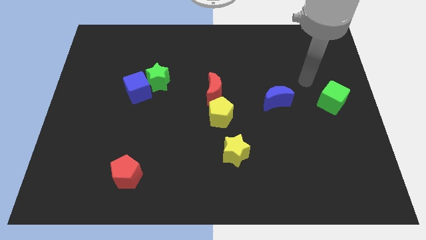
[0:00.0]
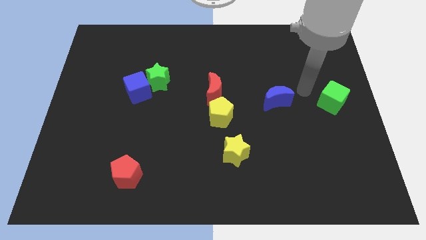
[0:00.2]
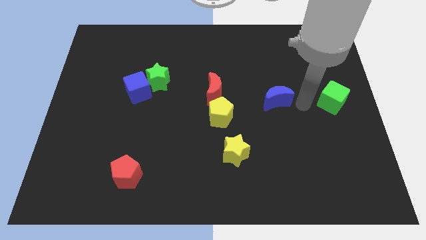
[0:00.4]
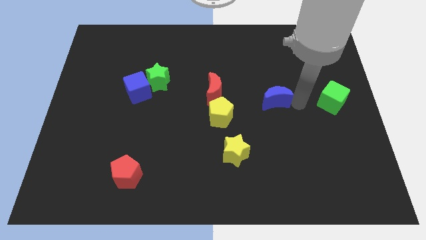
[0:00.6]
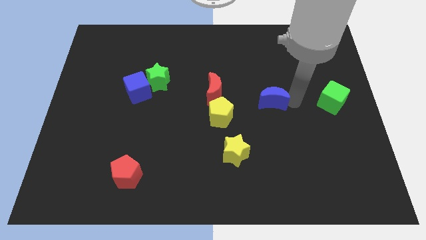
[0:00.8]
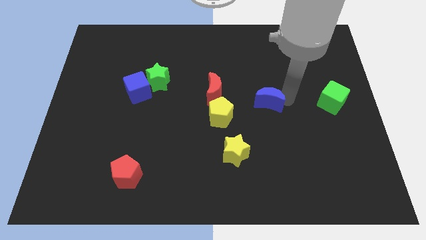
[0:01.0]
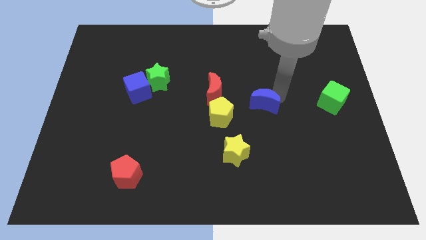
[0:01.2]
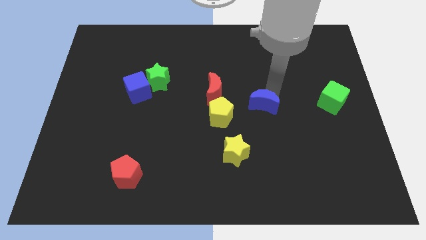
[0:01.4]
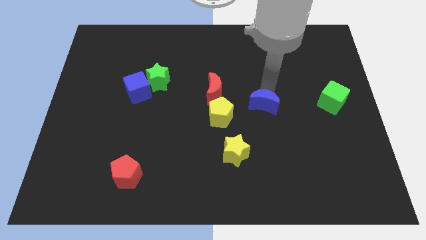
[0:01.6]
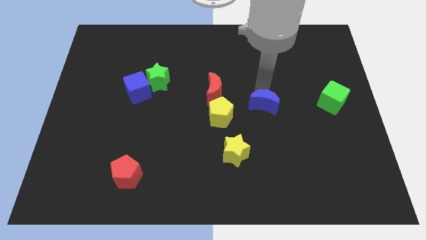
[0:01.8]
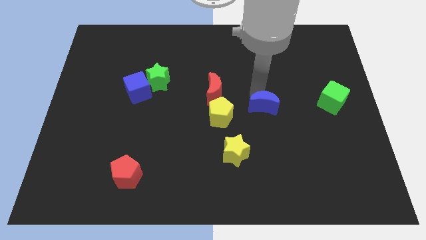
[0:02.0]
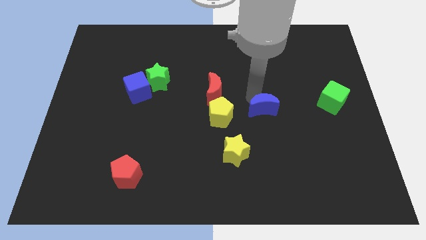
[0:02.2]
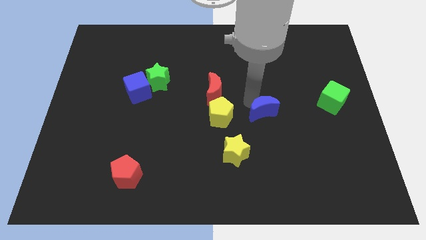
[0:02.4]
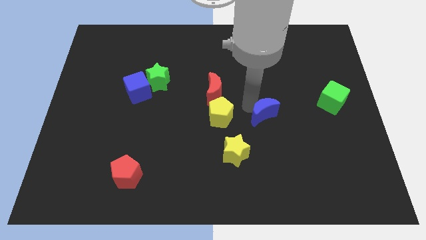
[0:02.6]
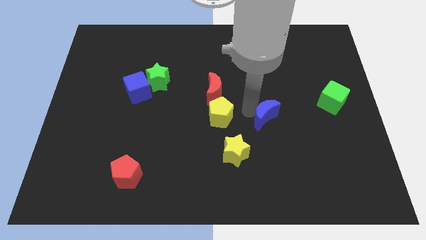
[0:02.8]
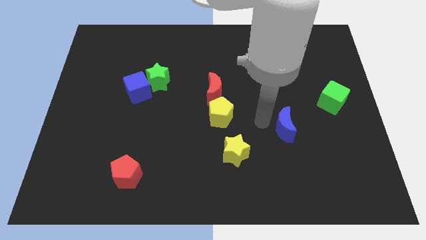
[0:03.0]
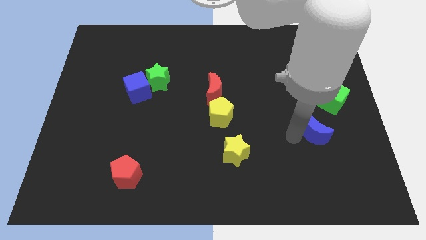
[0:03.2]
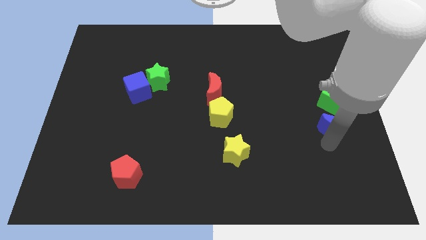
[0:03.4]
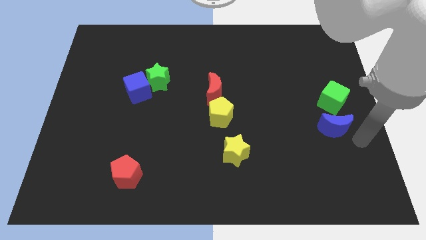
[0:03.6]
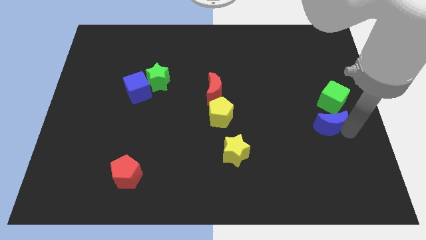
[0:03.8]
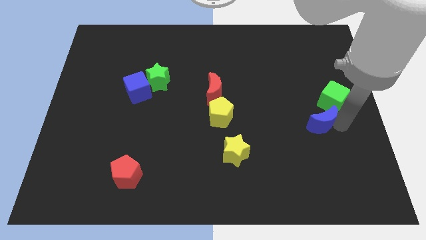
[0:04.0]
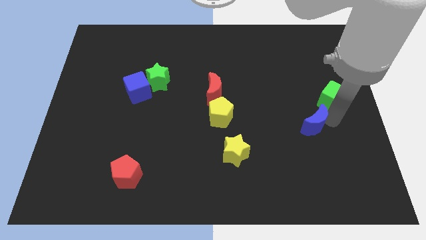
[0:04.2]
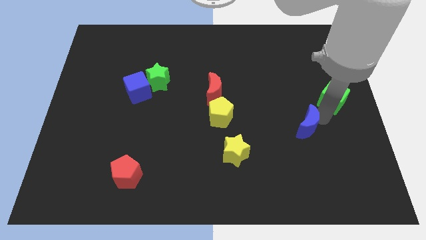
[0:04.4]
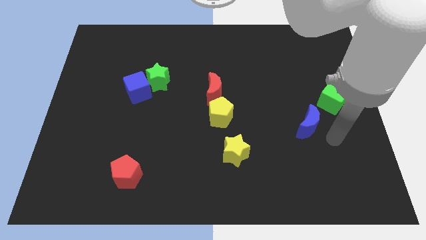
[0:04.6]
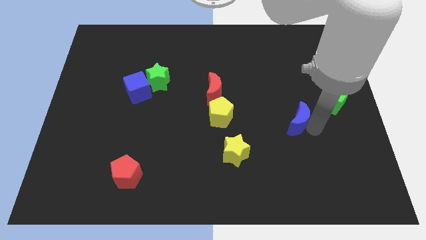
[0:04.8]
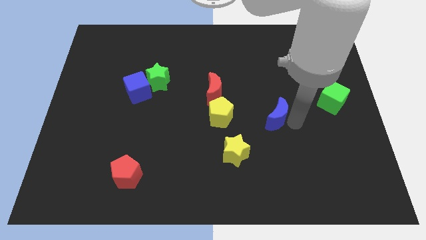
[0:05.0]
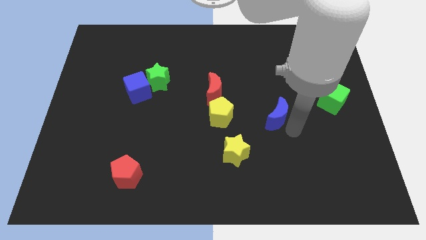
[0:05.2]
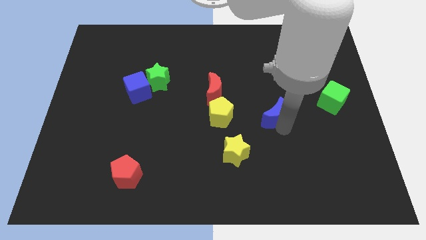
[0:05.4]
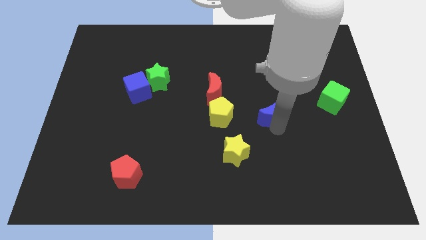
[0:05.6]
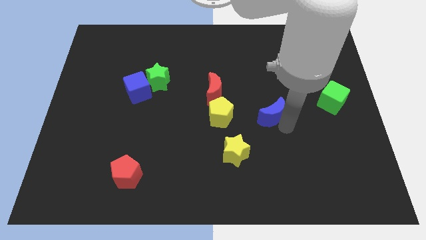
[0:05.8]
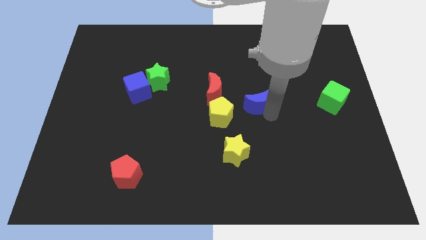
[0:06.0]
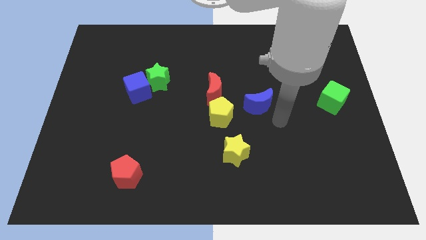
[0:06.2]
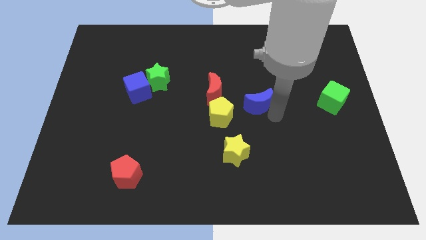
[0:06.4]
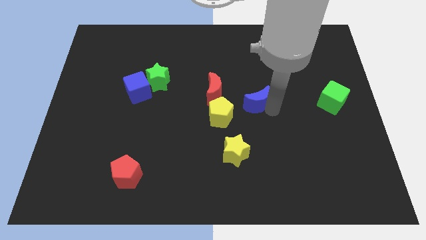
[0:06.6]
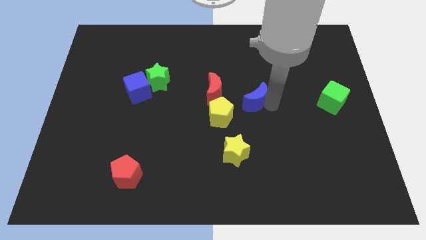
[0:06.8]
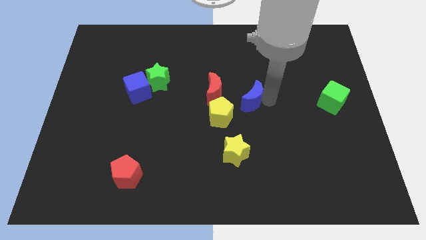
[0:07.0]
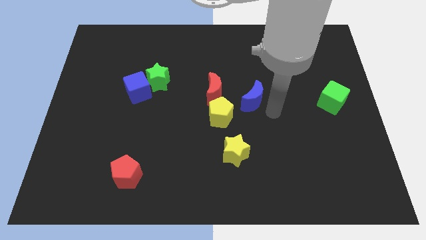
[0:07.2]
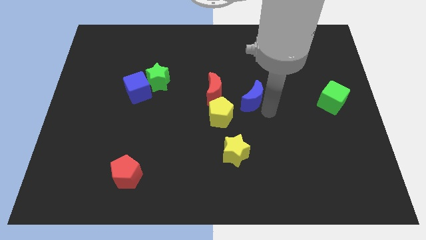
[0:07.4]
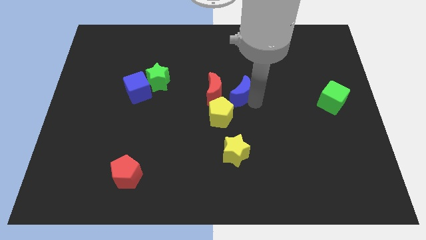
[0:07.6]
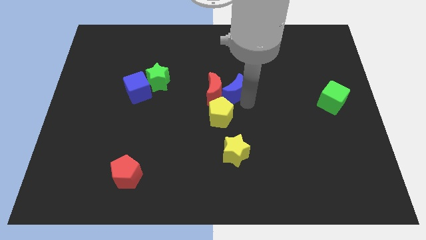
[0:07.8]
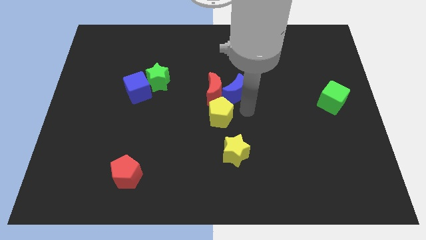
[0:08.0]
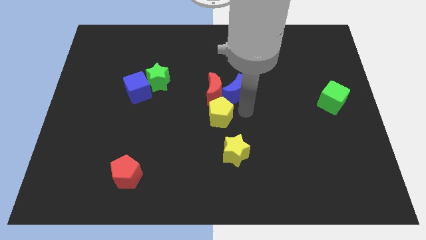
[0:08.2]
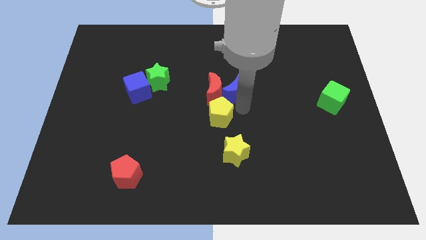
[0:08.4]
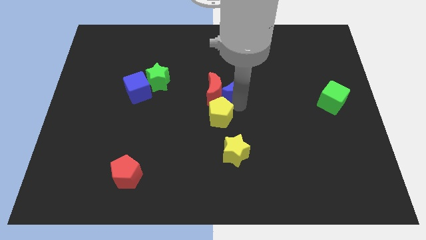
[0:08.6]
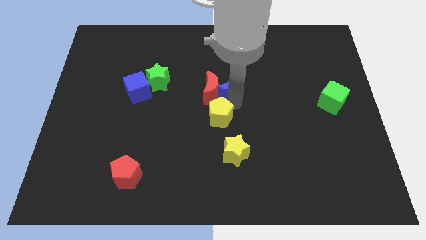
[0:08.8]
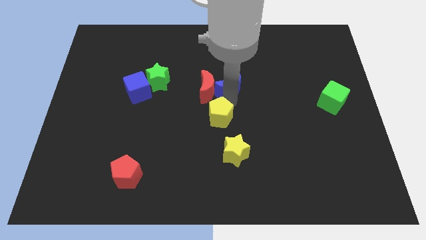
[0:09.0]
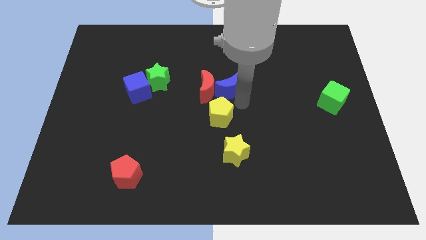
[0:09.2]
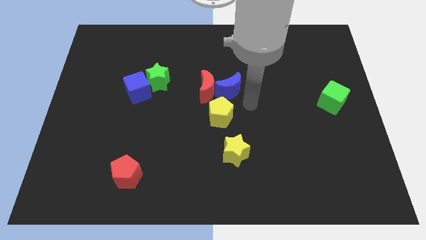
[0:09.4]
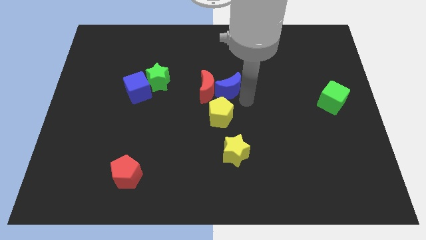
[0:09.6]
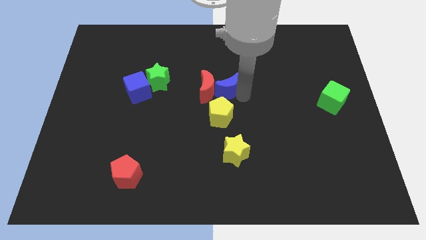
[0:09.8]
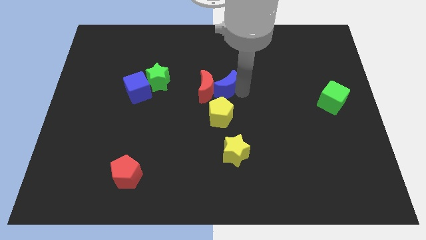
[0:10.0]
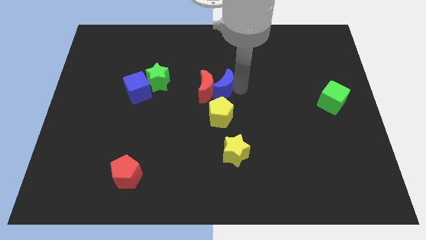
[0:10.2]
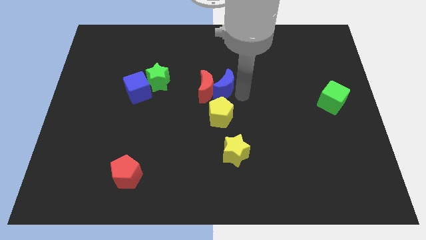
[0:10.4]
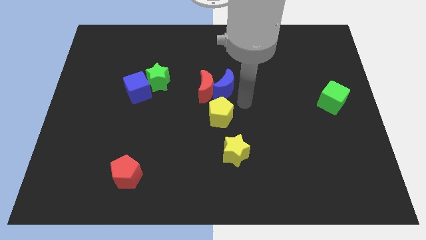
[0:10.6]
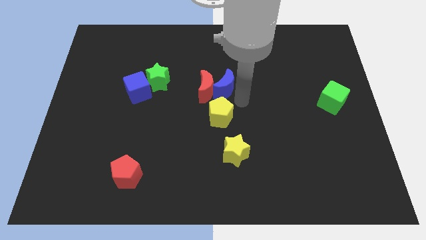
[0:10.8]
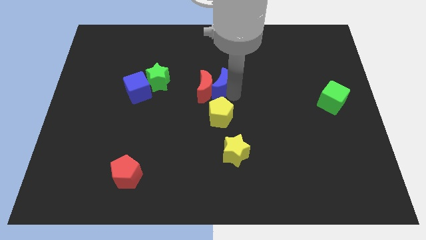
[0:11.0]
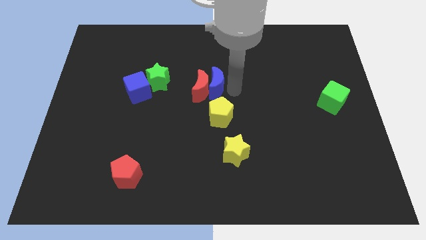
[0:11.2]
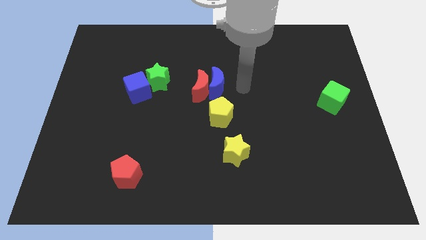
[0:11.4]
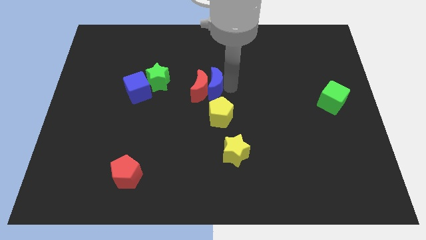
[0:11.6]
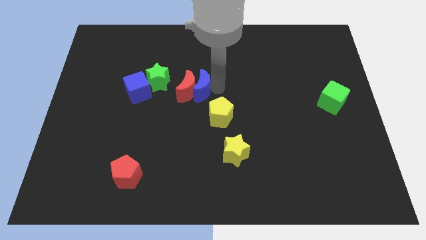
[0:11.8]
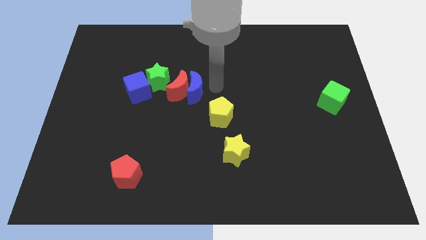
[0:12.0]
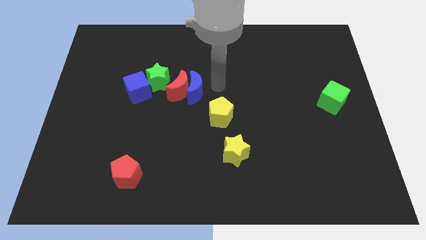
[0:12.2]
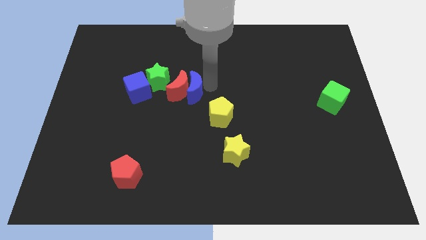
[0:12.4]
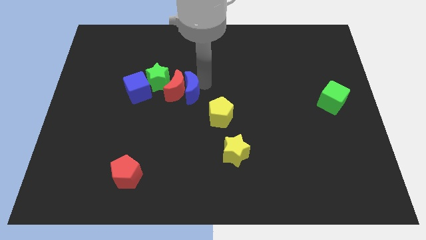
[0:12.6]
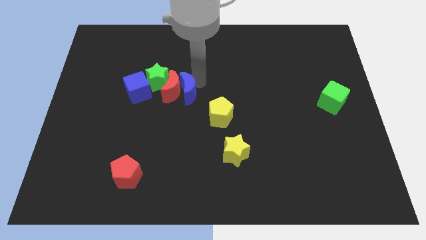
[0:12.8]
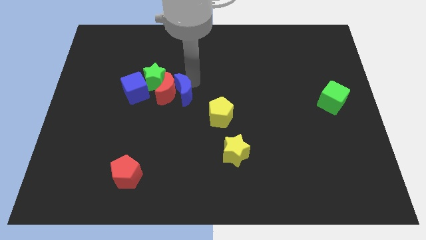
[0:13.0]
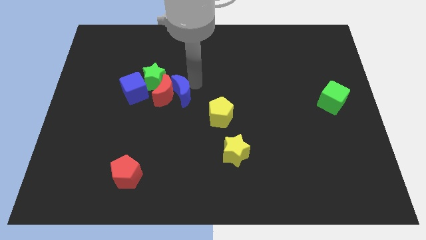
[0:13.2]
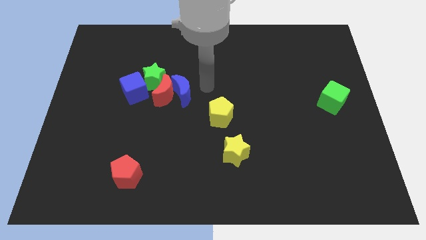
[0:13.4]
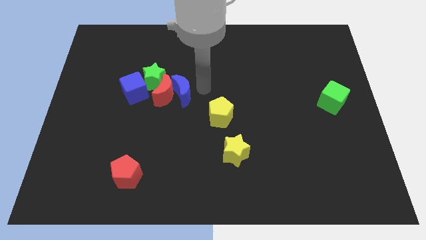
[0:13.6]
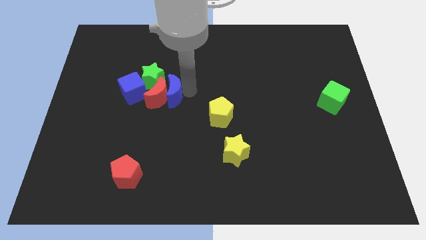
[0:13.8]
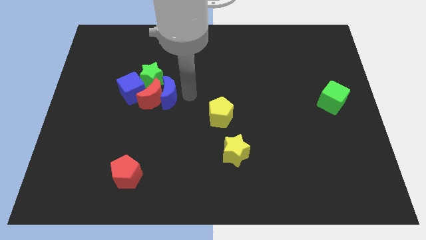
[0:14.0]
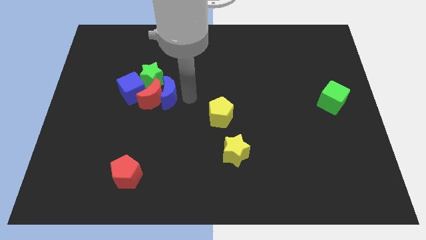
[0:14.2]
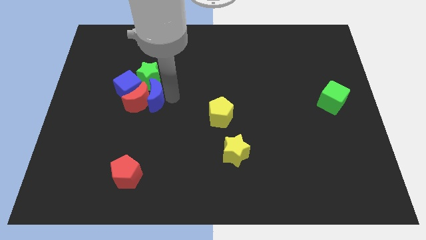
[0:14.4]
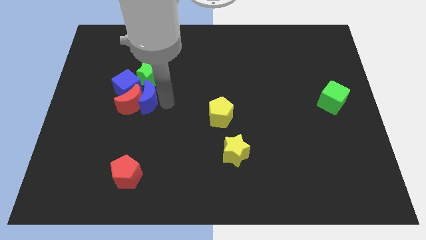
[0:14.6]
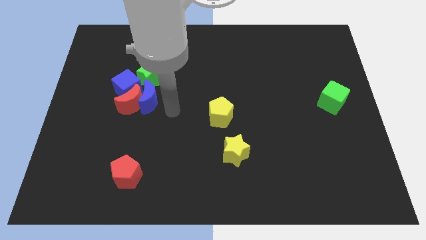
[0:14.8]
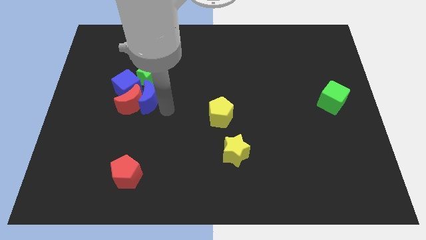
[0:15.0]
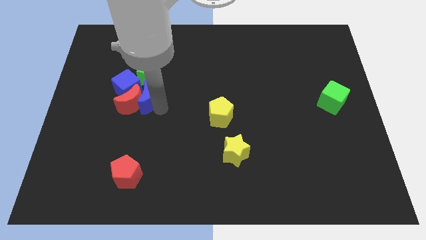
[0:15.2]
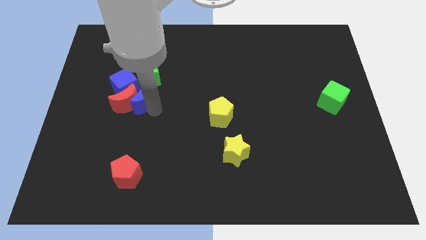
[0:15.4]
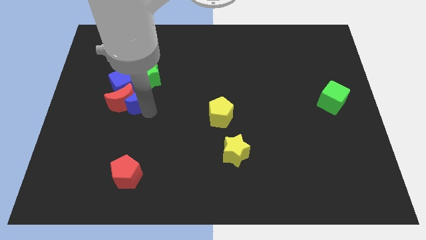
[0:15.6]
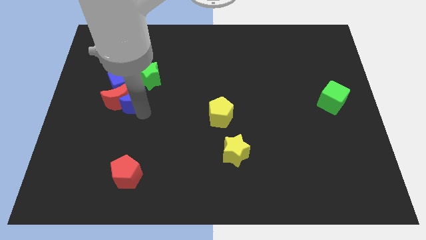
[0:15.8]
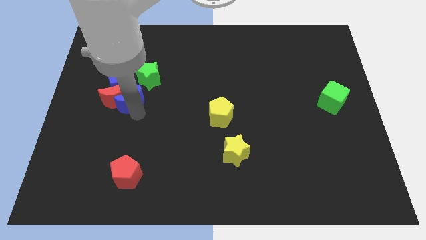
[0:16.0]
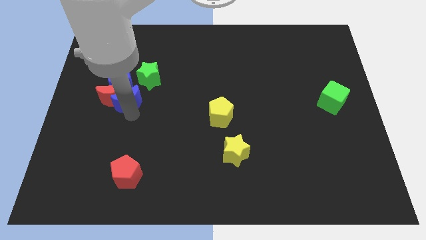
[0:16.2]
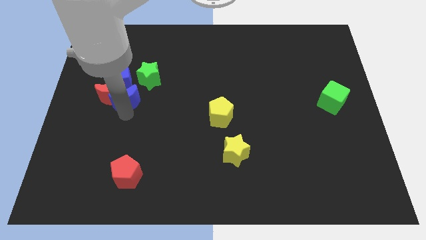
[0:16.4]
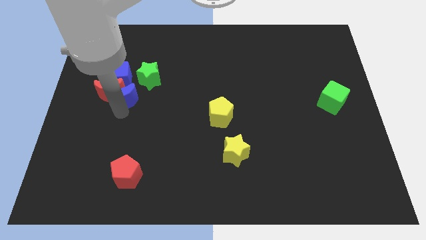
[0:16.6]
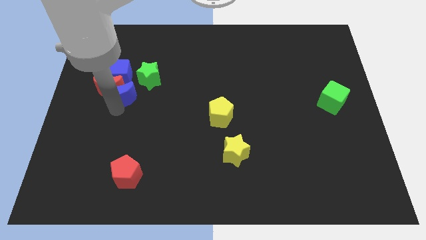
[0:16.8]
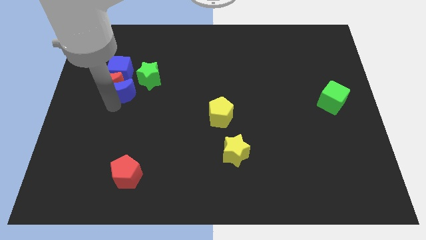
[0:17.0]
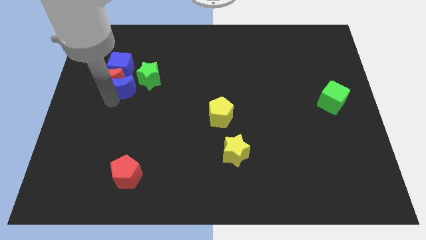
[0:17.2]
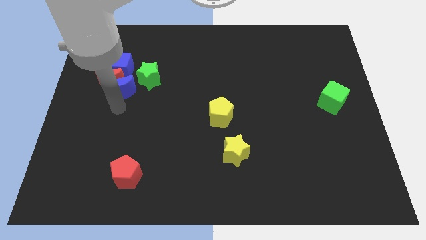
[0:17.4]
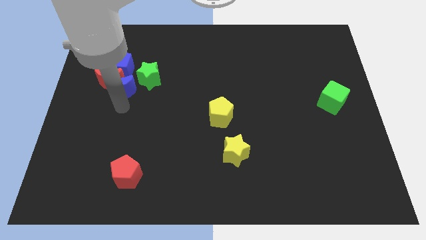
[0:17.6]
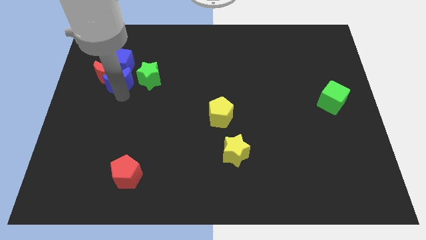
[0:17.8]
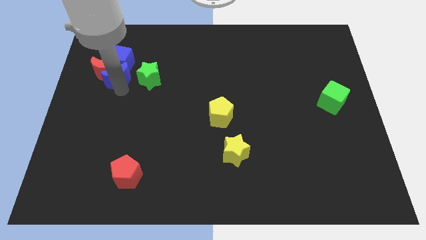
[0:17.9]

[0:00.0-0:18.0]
slide the blue moon to the blue cube
